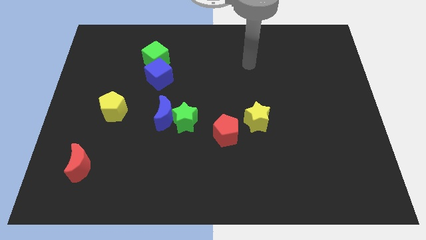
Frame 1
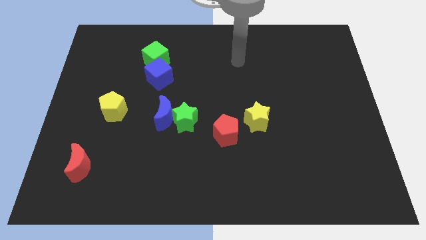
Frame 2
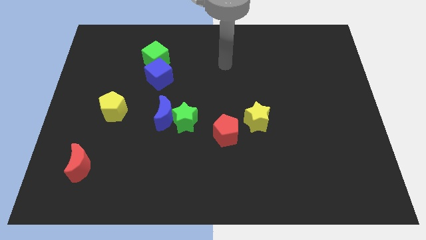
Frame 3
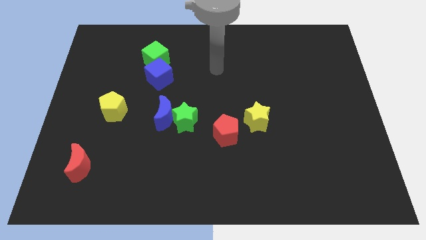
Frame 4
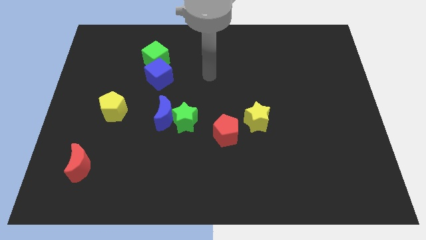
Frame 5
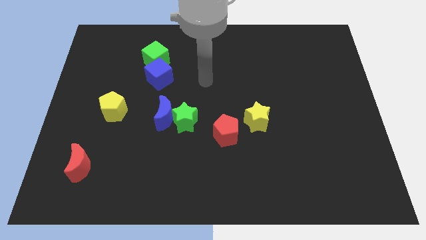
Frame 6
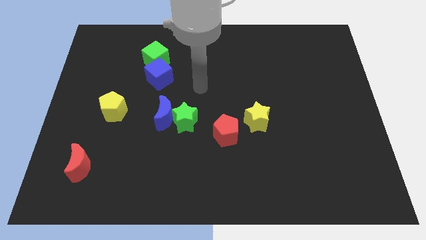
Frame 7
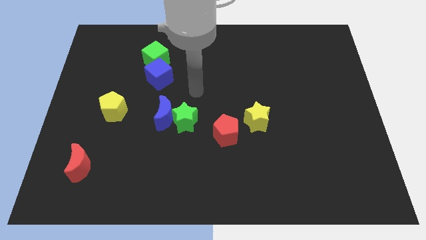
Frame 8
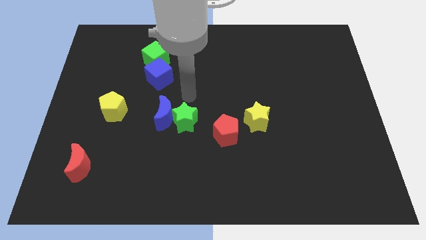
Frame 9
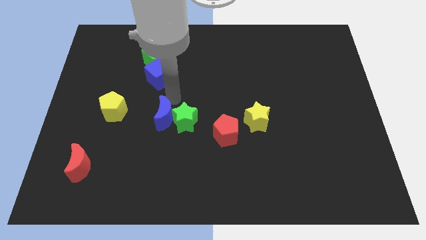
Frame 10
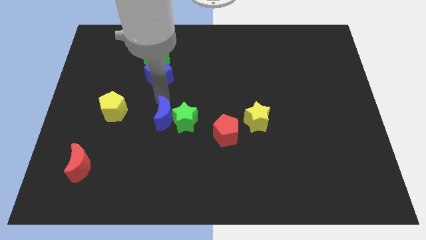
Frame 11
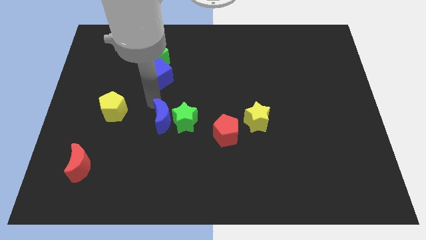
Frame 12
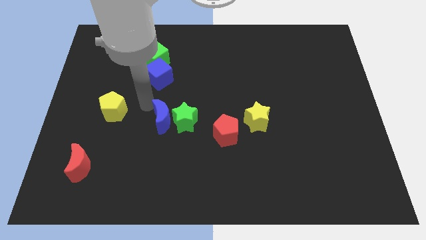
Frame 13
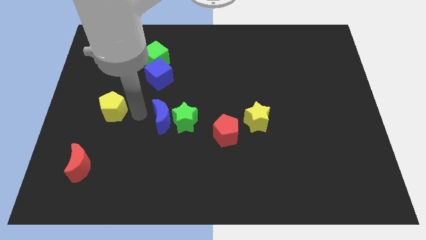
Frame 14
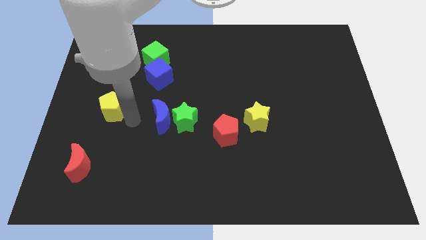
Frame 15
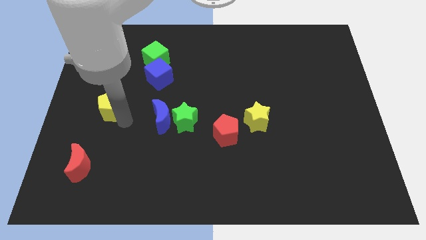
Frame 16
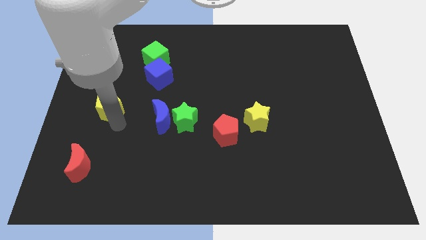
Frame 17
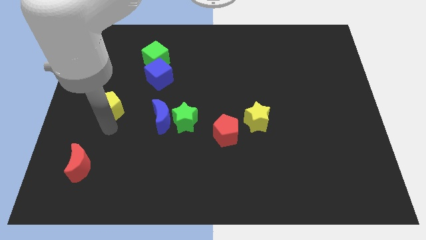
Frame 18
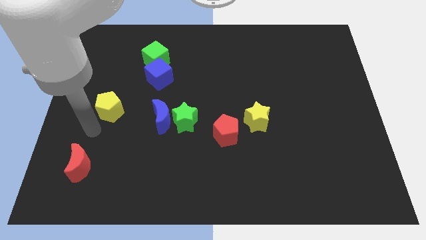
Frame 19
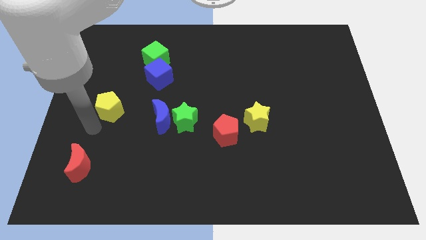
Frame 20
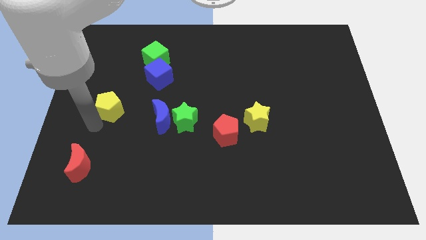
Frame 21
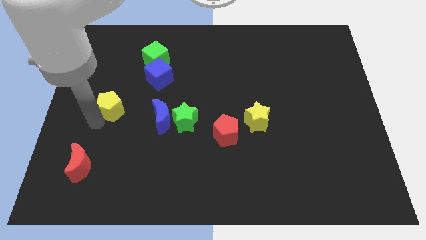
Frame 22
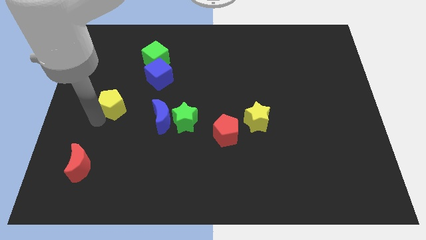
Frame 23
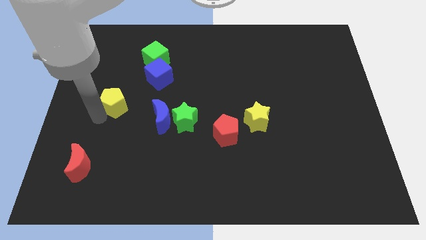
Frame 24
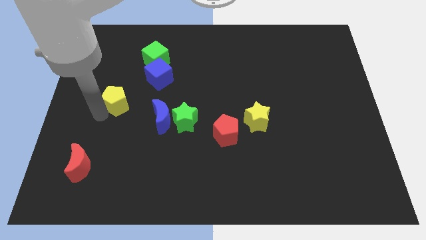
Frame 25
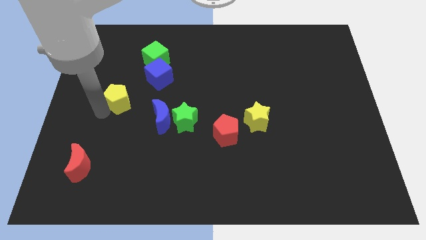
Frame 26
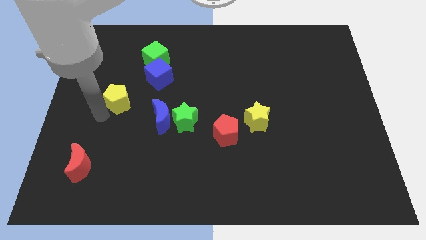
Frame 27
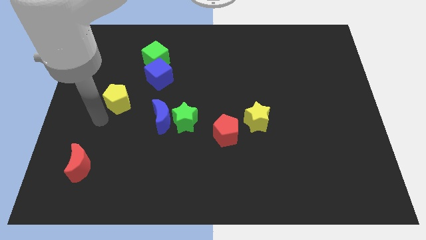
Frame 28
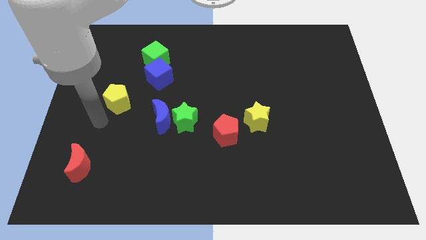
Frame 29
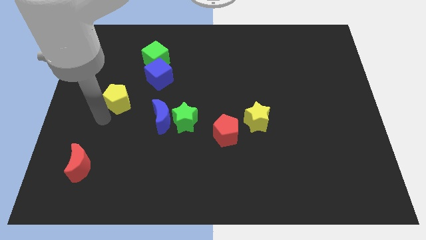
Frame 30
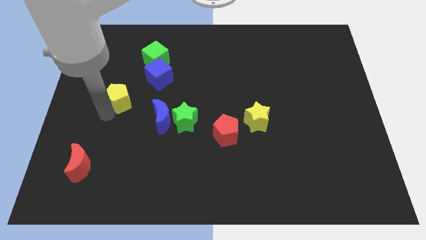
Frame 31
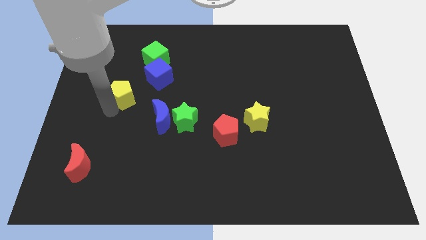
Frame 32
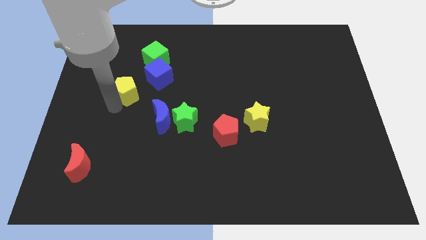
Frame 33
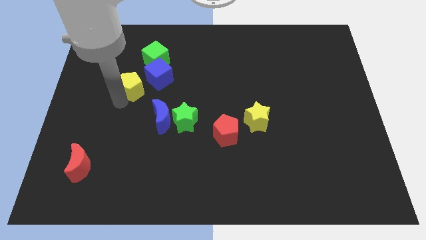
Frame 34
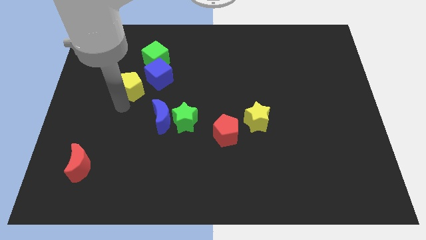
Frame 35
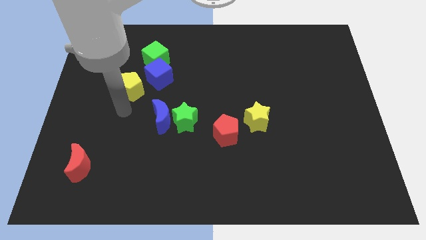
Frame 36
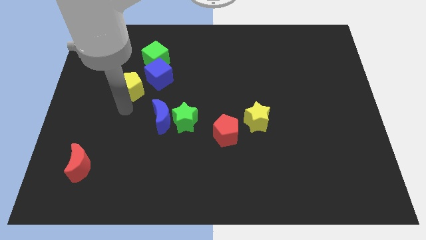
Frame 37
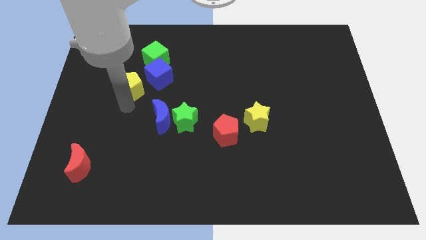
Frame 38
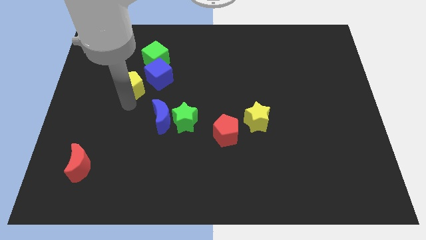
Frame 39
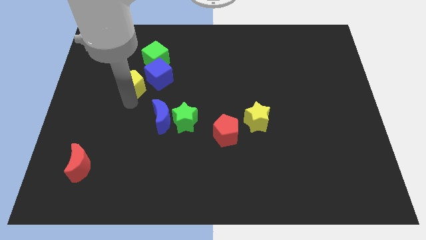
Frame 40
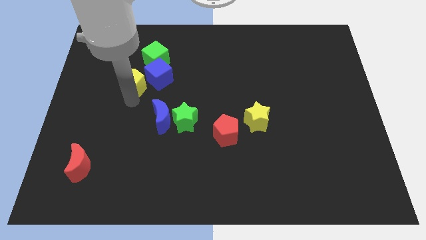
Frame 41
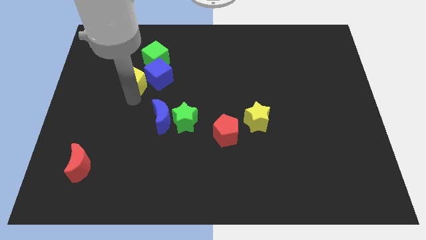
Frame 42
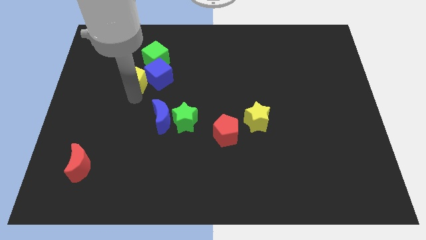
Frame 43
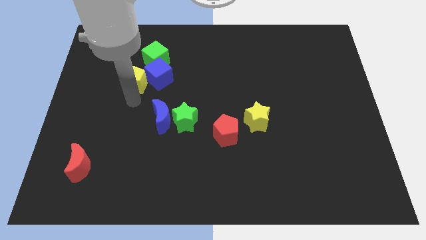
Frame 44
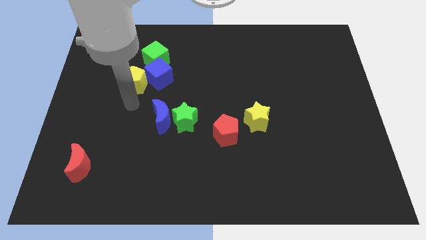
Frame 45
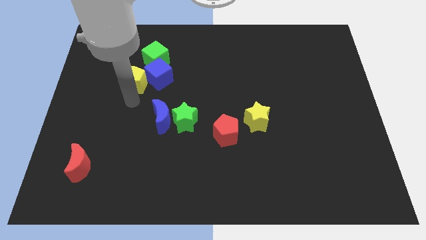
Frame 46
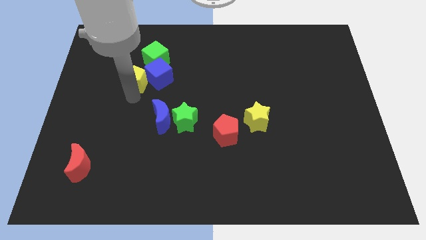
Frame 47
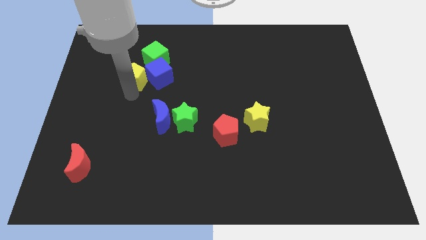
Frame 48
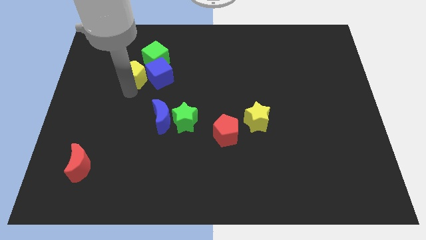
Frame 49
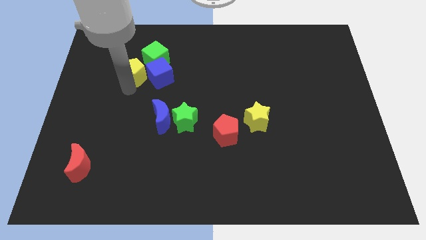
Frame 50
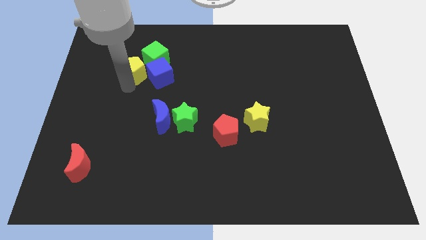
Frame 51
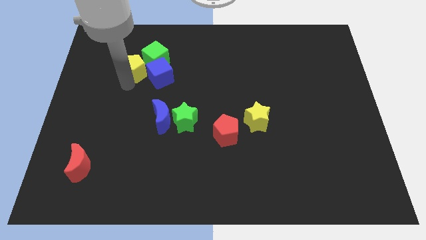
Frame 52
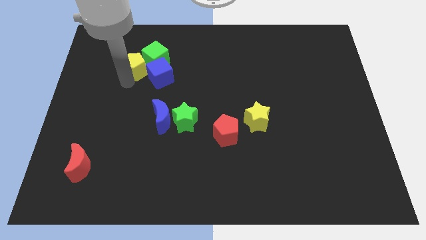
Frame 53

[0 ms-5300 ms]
slide the yellow pentagon close to the green cube

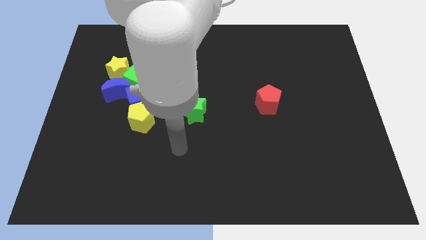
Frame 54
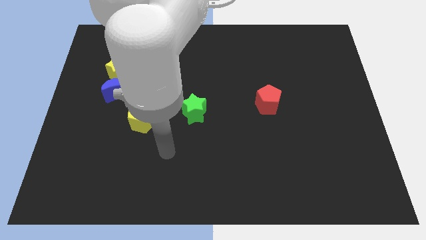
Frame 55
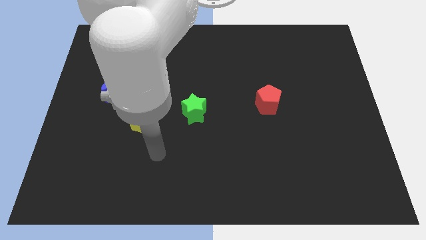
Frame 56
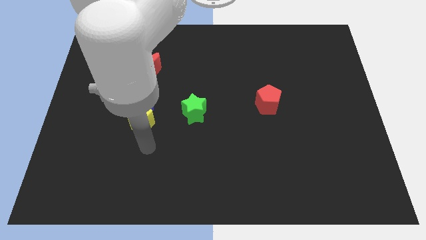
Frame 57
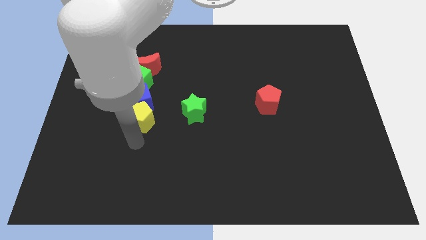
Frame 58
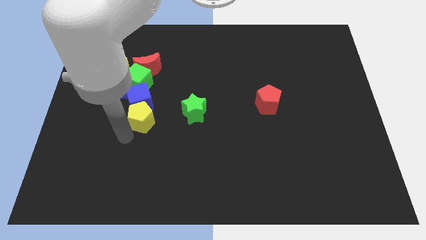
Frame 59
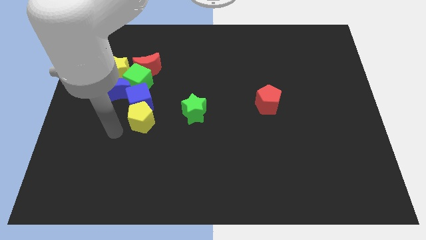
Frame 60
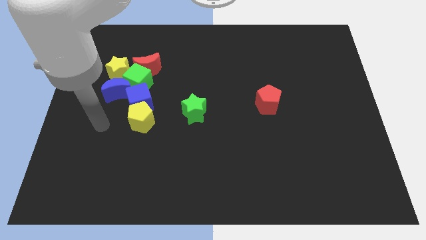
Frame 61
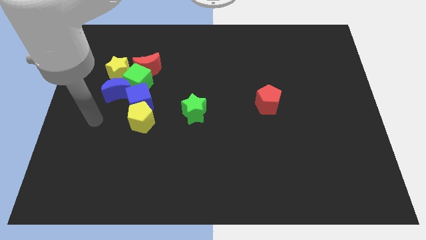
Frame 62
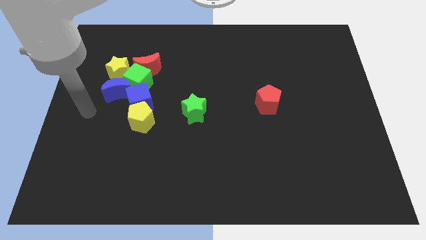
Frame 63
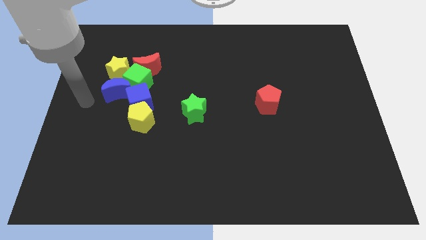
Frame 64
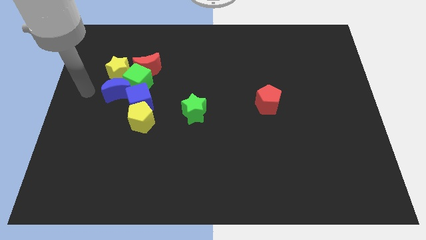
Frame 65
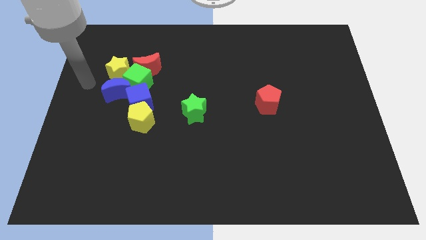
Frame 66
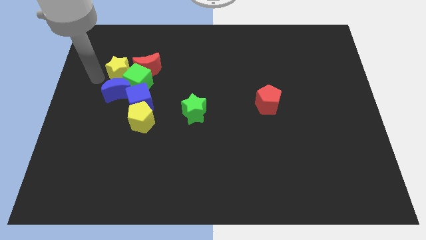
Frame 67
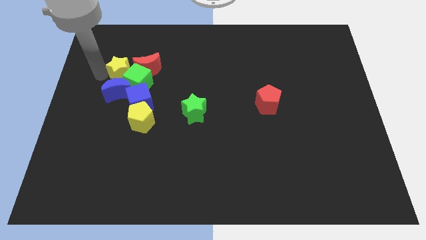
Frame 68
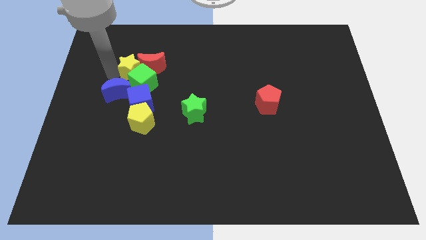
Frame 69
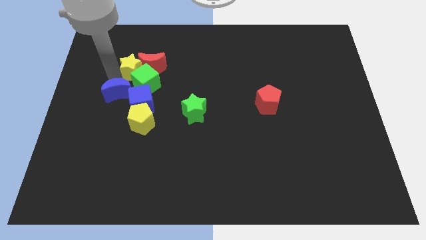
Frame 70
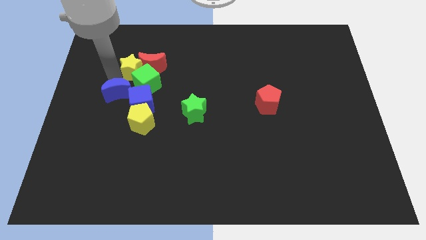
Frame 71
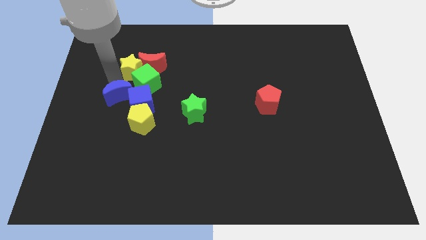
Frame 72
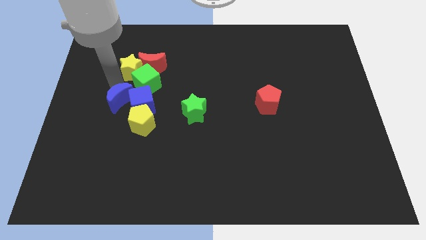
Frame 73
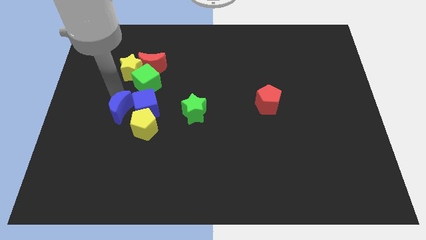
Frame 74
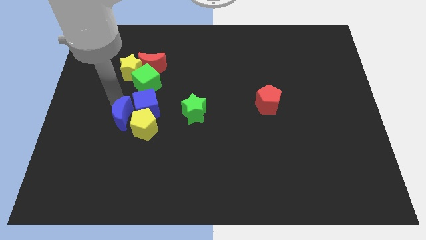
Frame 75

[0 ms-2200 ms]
slide the blue moon close to the yellow pentagon

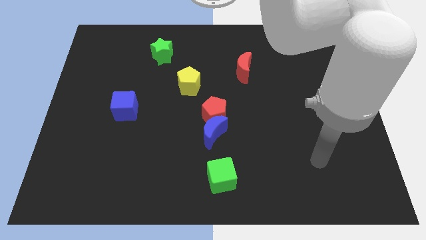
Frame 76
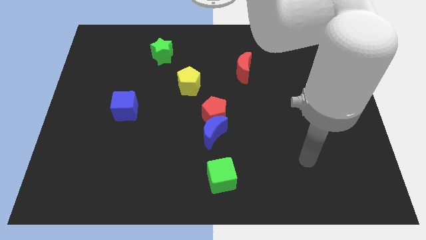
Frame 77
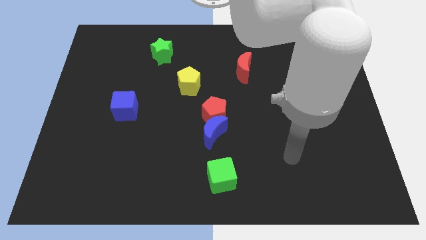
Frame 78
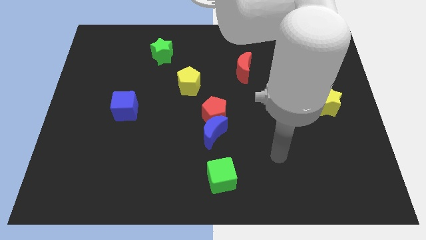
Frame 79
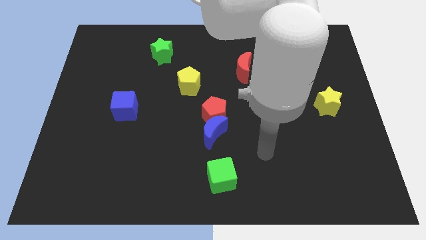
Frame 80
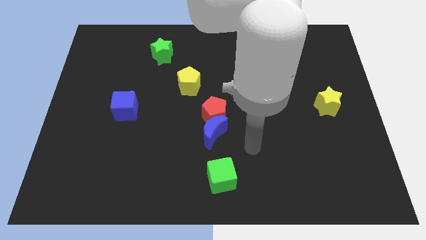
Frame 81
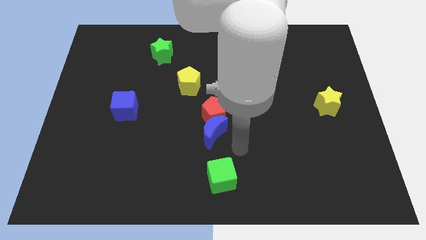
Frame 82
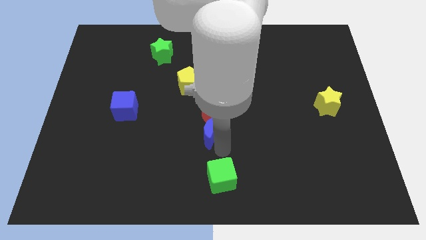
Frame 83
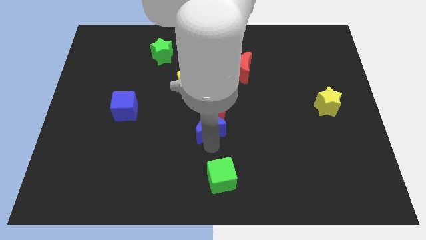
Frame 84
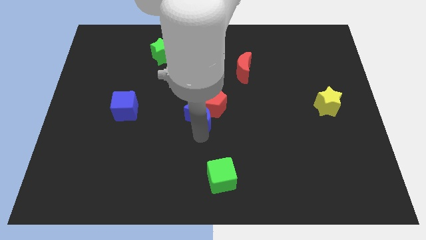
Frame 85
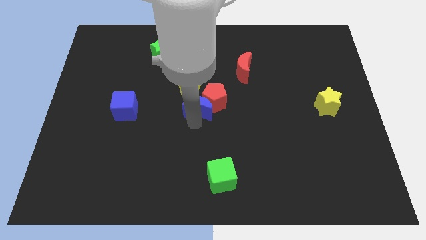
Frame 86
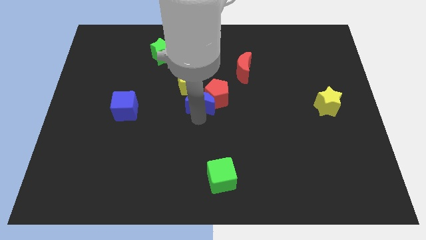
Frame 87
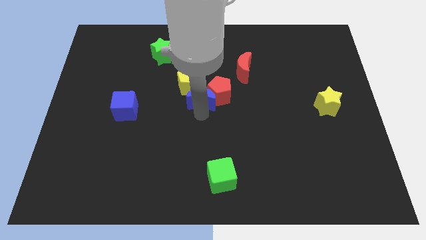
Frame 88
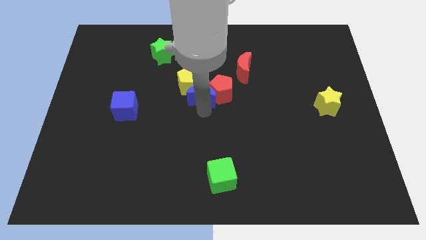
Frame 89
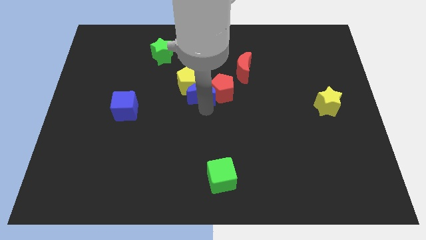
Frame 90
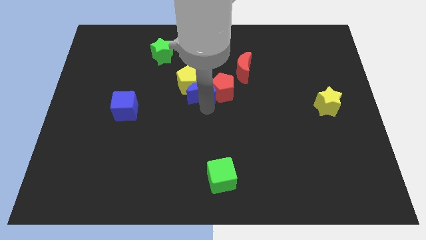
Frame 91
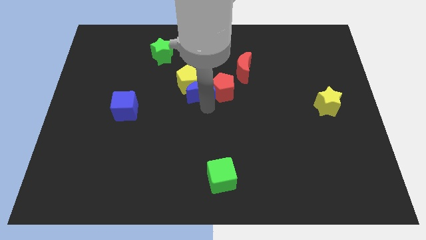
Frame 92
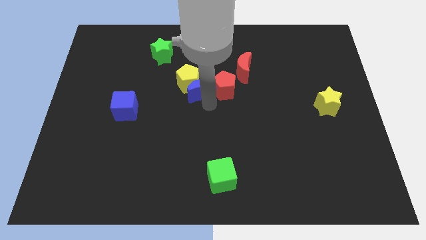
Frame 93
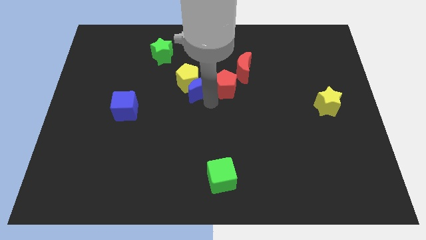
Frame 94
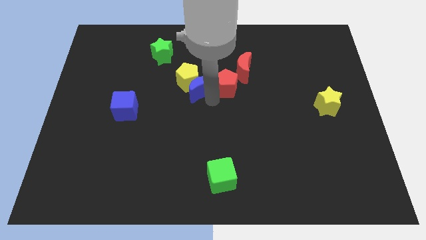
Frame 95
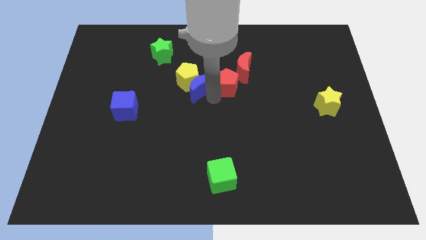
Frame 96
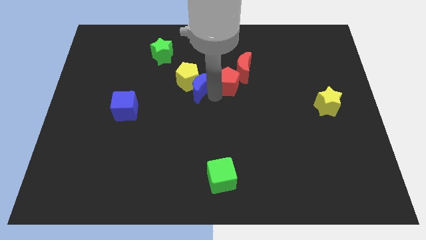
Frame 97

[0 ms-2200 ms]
slide the red pentagon close to the red moon
